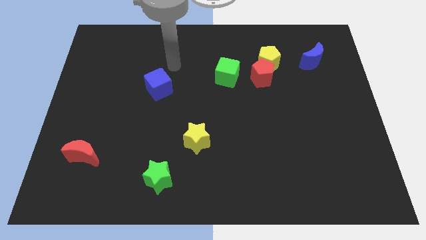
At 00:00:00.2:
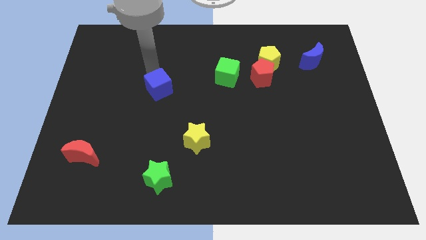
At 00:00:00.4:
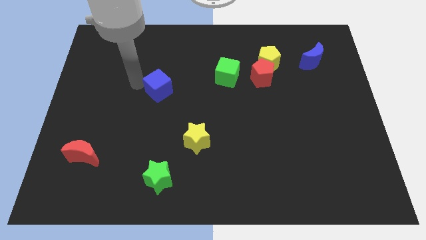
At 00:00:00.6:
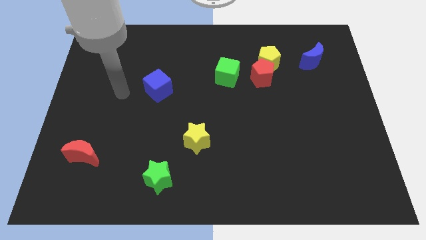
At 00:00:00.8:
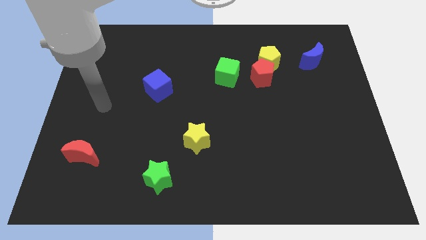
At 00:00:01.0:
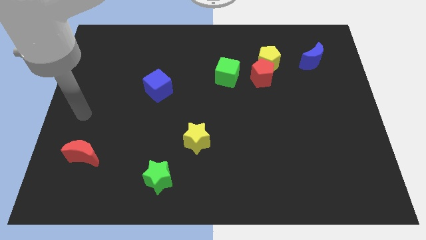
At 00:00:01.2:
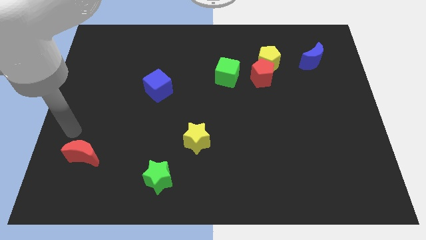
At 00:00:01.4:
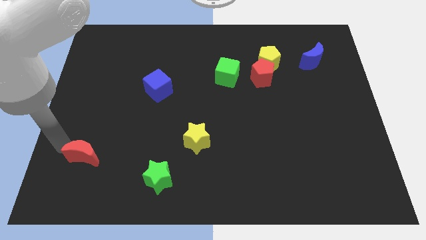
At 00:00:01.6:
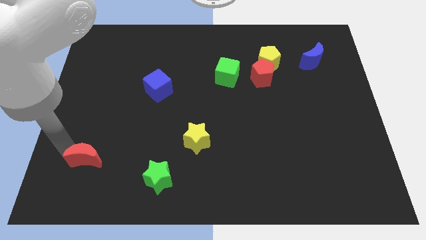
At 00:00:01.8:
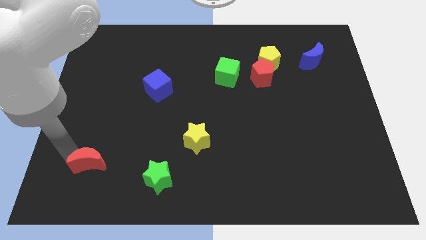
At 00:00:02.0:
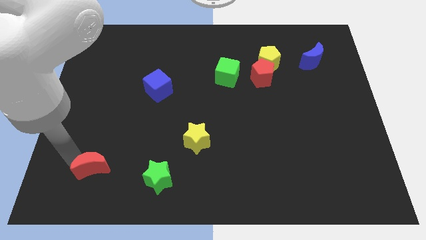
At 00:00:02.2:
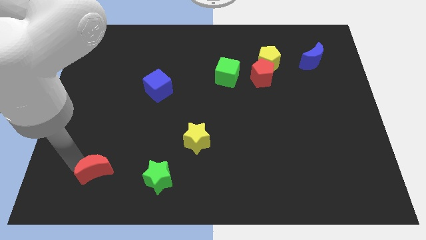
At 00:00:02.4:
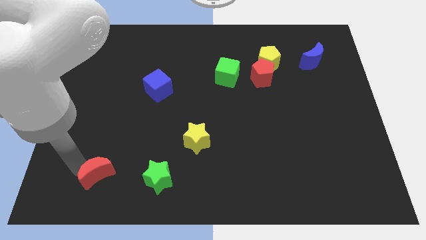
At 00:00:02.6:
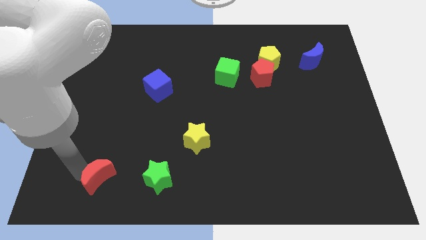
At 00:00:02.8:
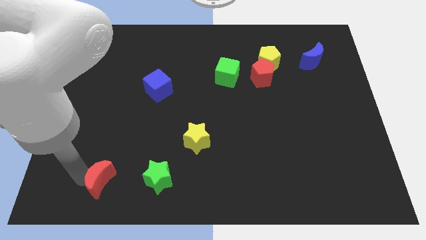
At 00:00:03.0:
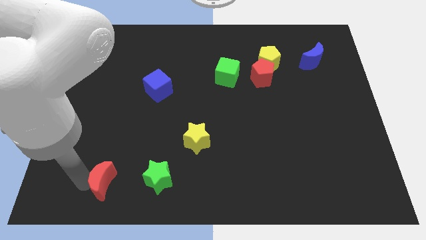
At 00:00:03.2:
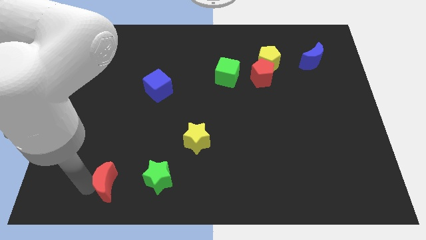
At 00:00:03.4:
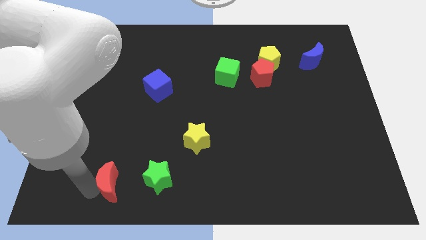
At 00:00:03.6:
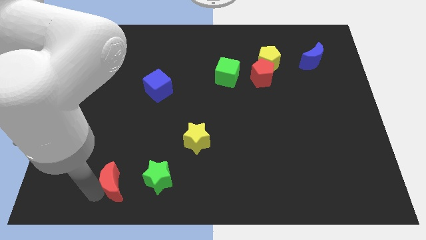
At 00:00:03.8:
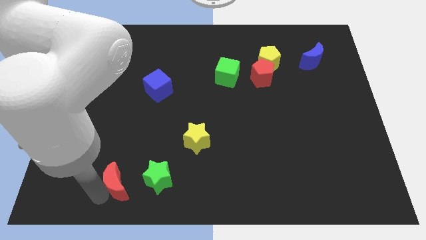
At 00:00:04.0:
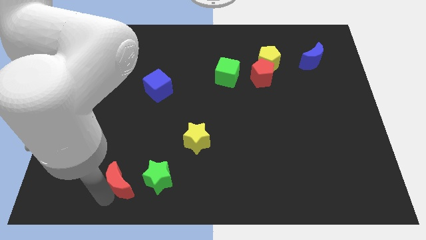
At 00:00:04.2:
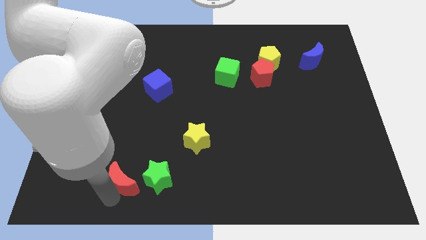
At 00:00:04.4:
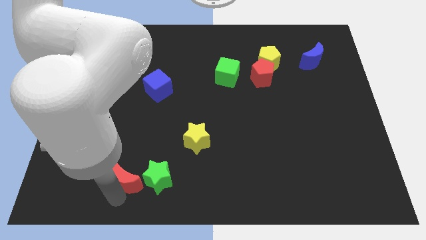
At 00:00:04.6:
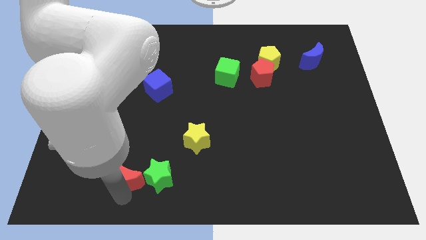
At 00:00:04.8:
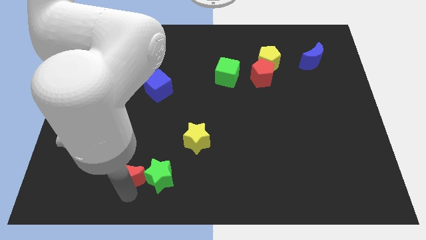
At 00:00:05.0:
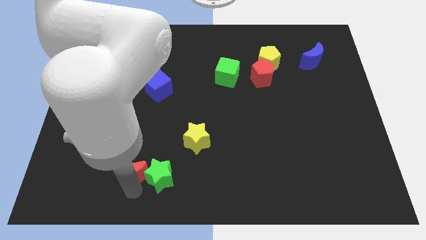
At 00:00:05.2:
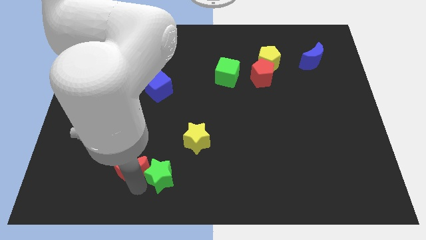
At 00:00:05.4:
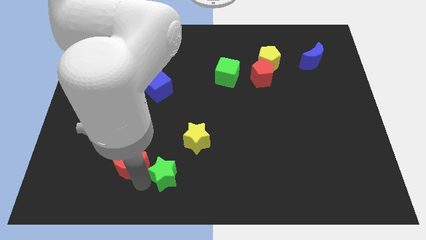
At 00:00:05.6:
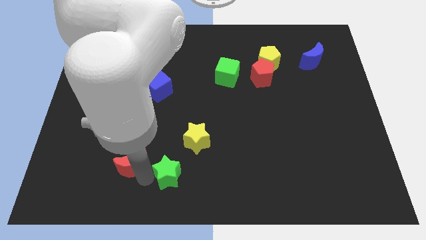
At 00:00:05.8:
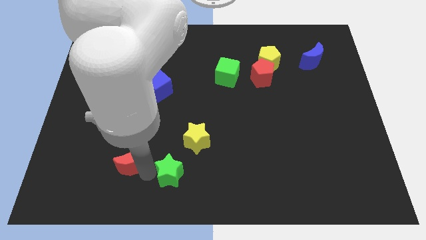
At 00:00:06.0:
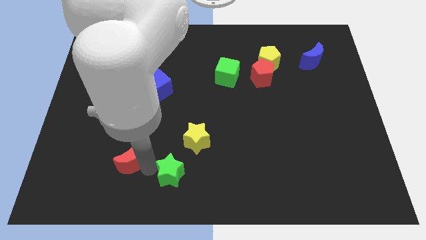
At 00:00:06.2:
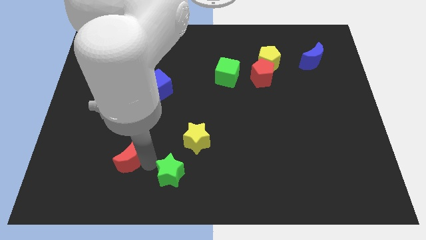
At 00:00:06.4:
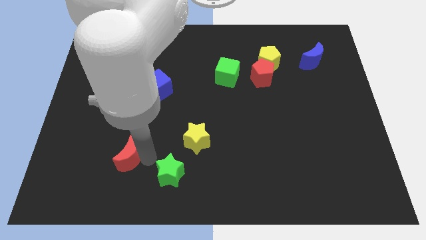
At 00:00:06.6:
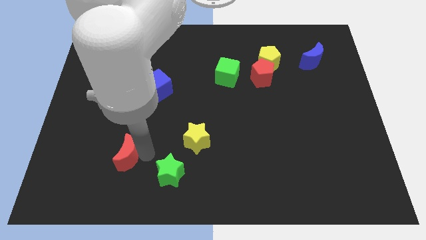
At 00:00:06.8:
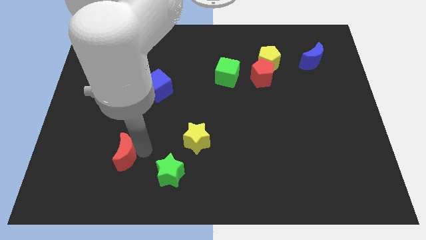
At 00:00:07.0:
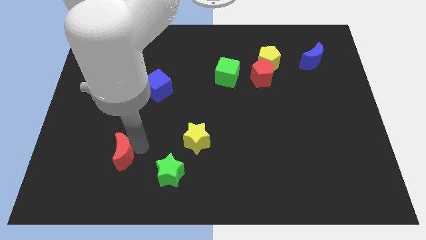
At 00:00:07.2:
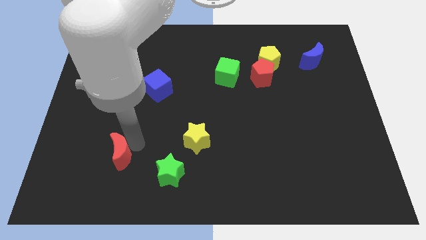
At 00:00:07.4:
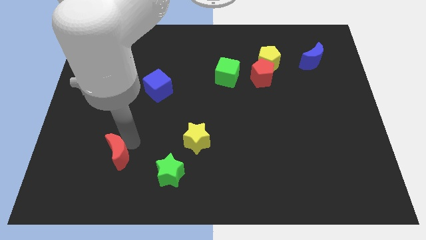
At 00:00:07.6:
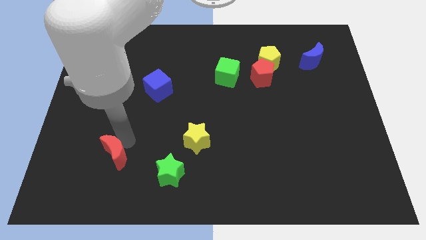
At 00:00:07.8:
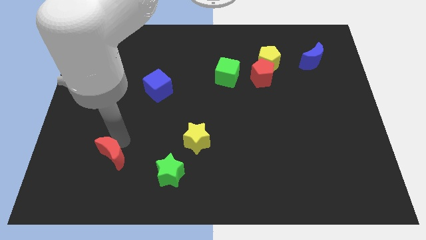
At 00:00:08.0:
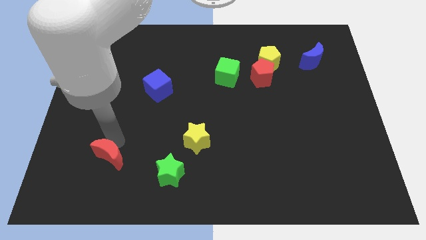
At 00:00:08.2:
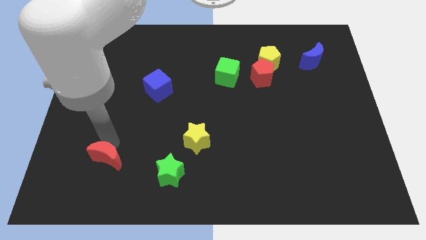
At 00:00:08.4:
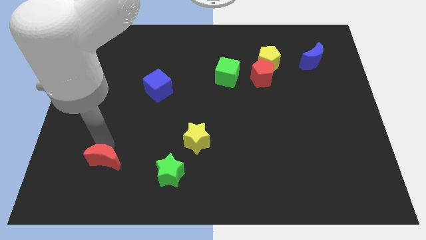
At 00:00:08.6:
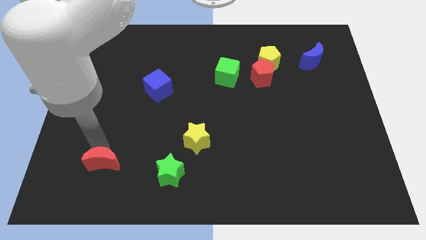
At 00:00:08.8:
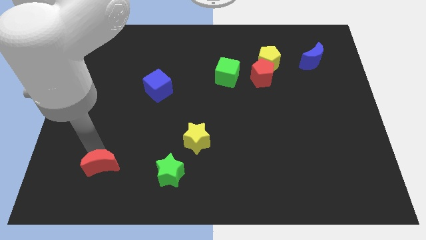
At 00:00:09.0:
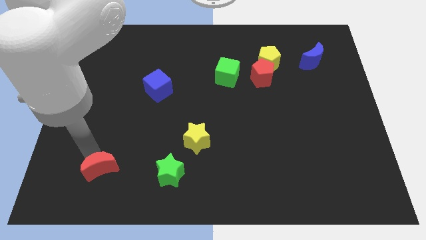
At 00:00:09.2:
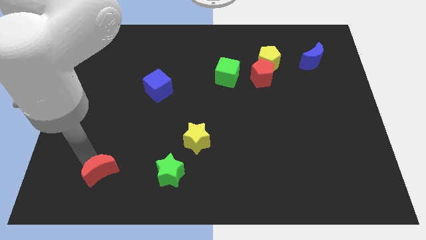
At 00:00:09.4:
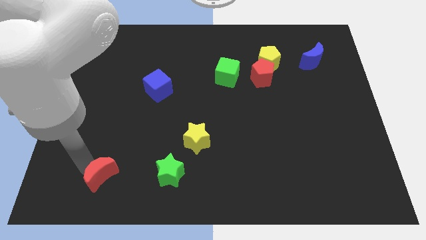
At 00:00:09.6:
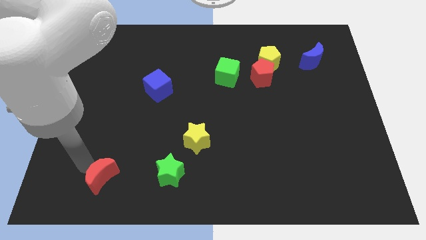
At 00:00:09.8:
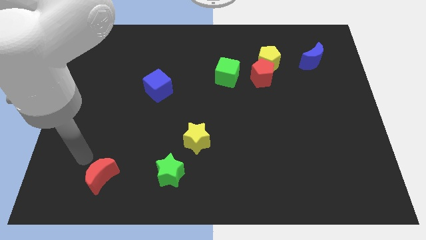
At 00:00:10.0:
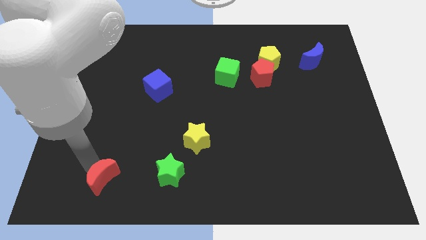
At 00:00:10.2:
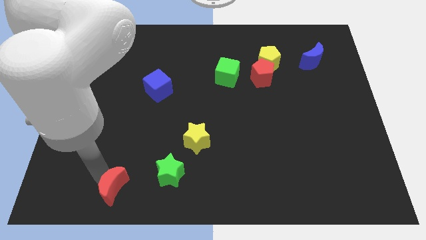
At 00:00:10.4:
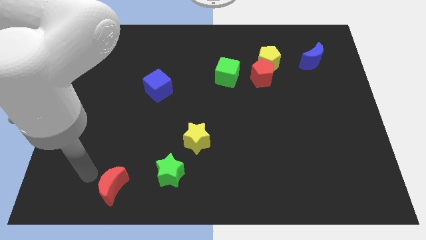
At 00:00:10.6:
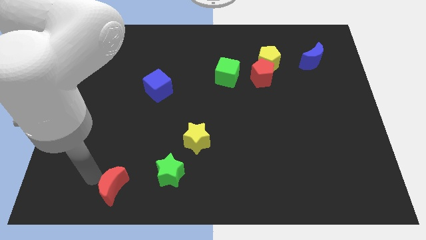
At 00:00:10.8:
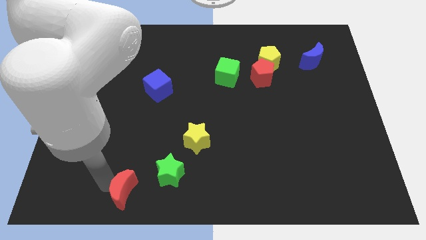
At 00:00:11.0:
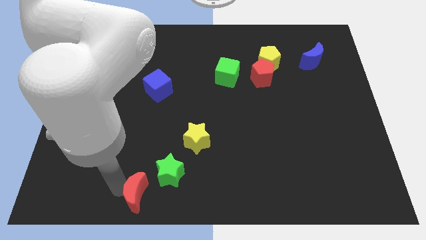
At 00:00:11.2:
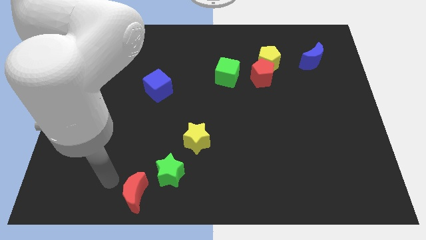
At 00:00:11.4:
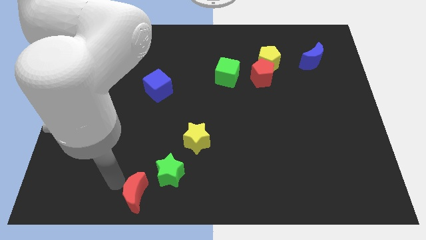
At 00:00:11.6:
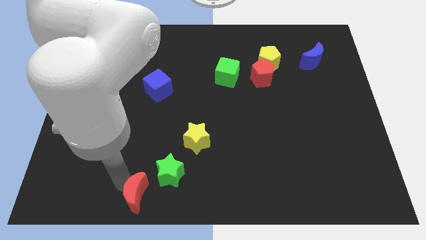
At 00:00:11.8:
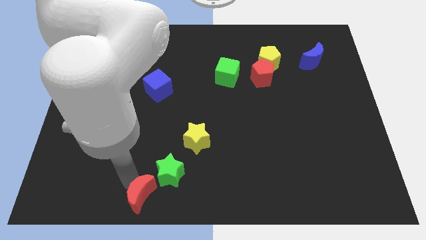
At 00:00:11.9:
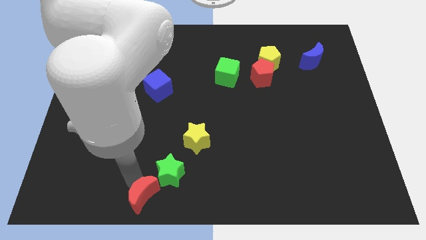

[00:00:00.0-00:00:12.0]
slide the red moon to the bottom
